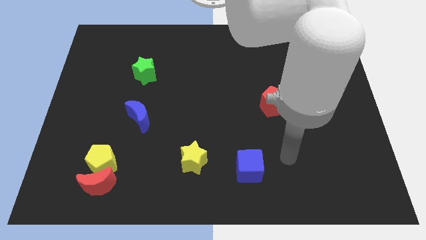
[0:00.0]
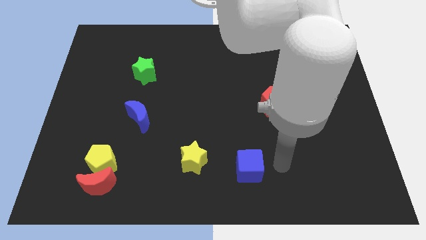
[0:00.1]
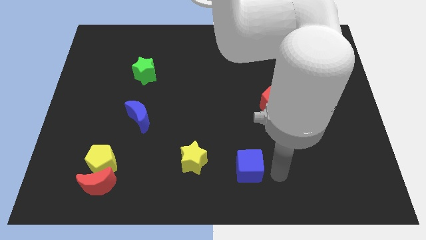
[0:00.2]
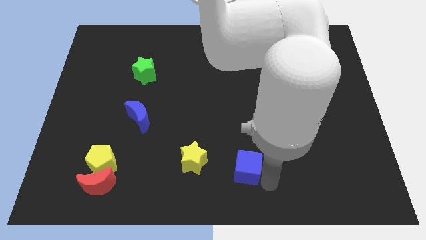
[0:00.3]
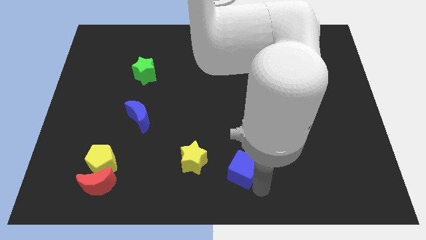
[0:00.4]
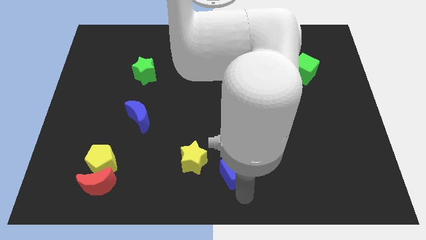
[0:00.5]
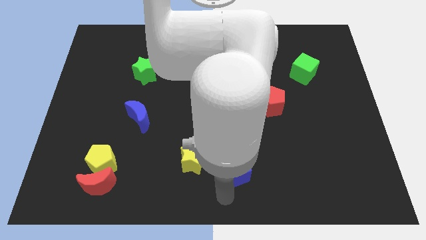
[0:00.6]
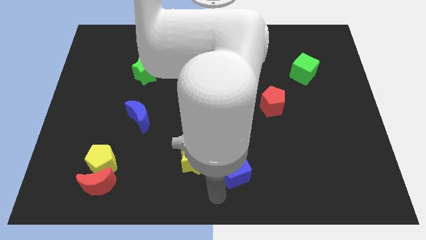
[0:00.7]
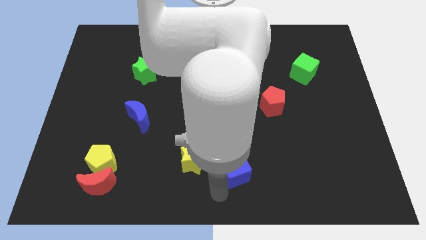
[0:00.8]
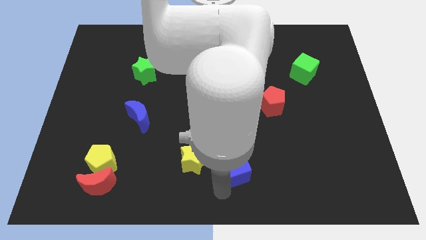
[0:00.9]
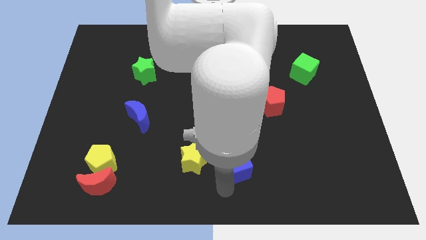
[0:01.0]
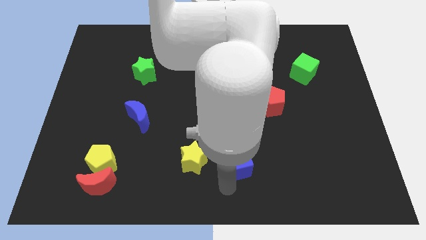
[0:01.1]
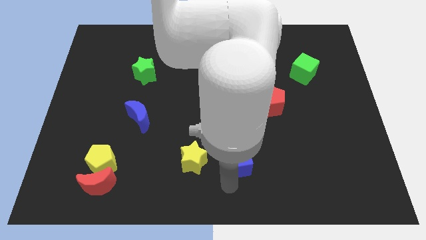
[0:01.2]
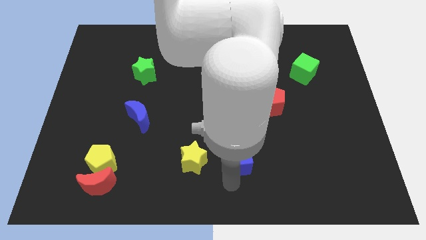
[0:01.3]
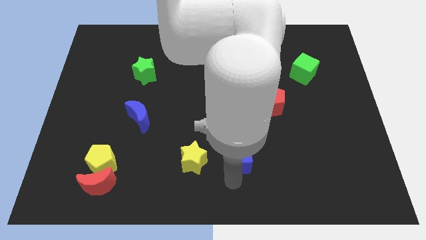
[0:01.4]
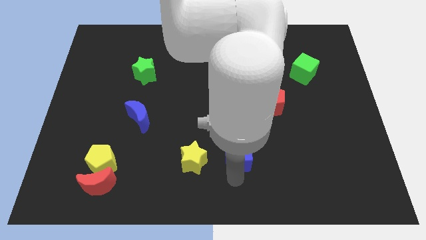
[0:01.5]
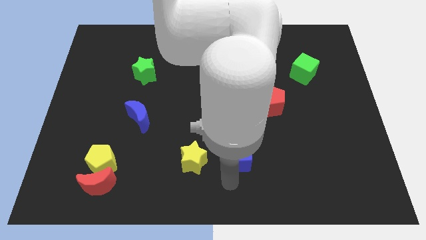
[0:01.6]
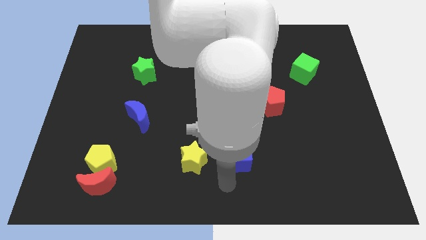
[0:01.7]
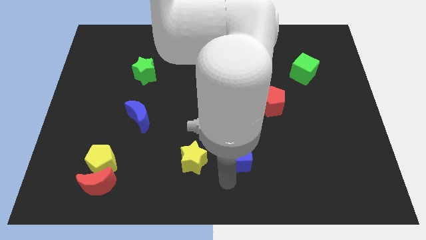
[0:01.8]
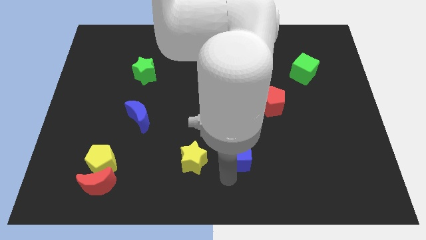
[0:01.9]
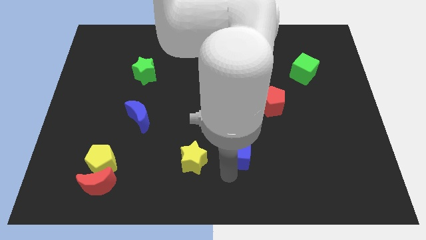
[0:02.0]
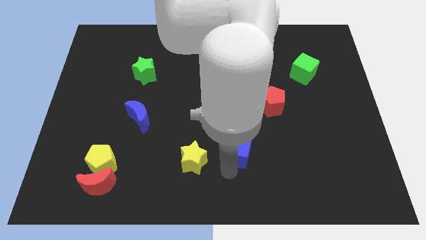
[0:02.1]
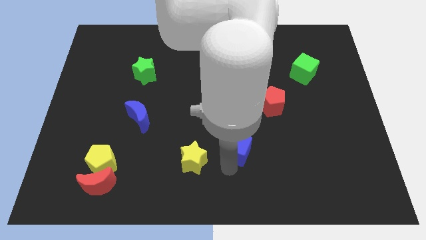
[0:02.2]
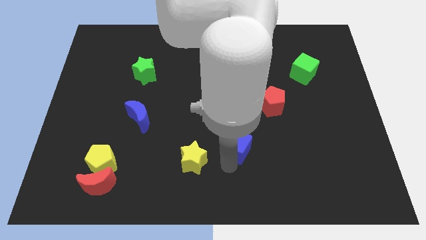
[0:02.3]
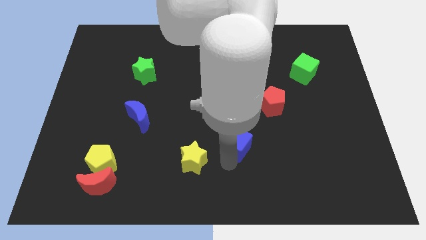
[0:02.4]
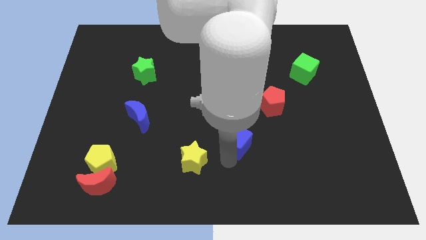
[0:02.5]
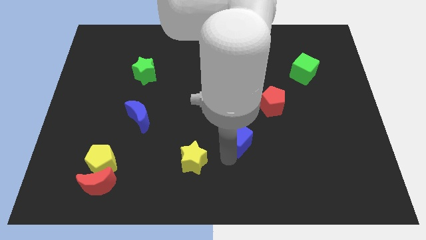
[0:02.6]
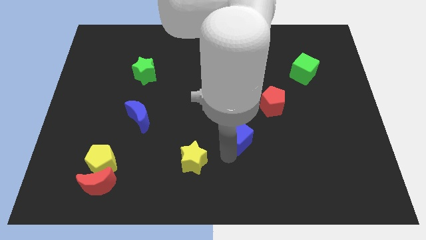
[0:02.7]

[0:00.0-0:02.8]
push the blue cube a little bit upwards

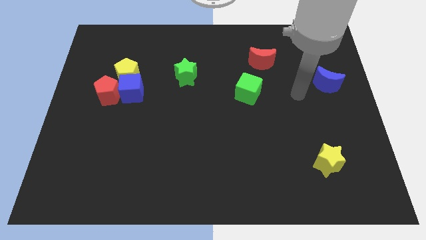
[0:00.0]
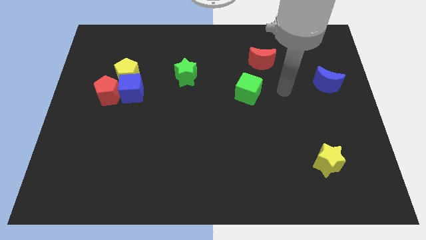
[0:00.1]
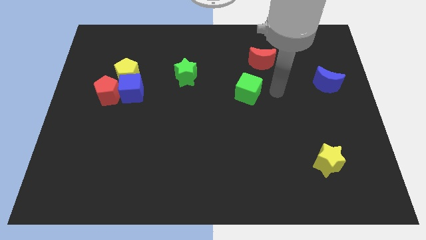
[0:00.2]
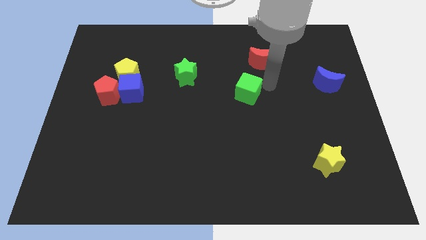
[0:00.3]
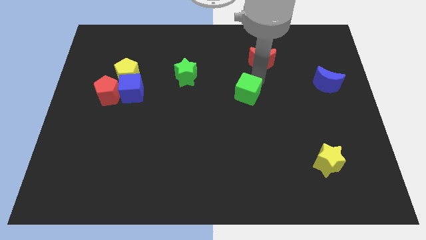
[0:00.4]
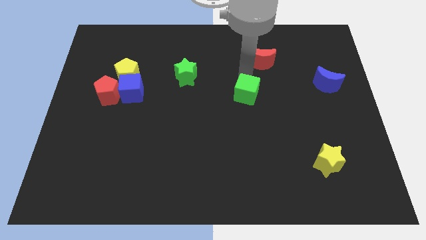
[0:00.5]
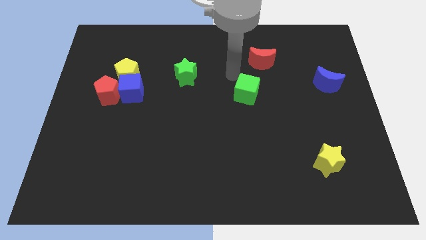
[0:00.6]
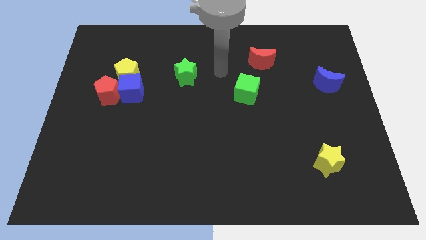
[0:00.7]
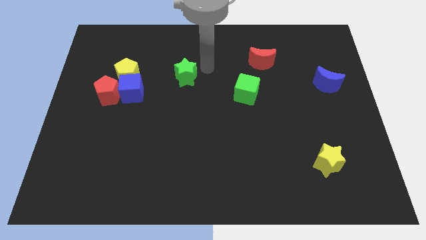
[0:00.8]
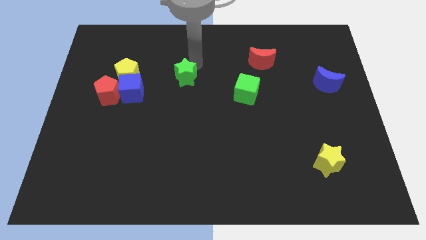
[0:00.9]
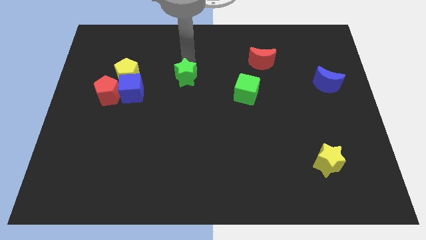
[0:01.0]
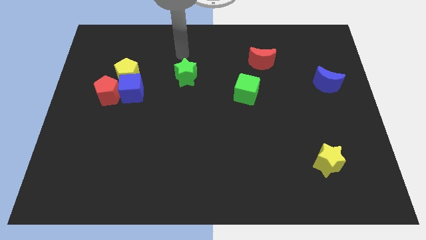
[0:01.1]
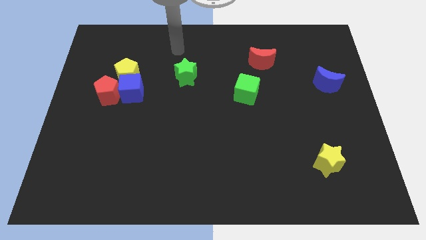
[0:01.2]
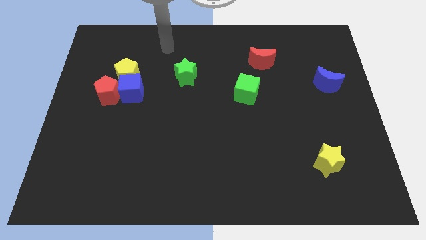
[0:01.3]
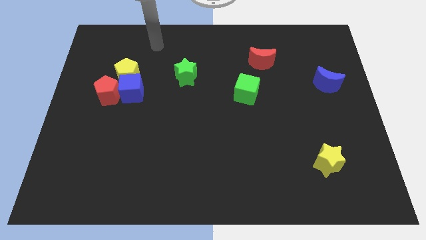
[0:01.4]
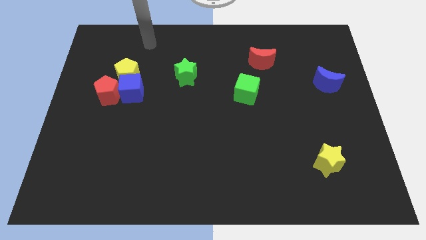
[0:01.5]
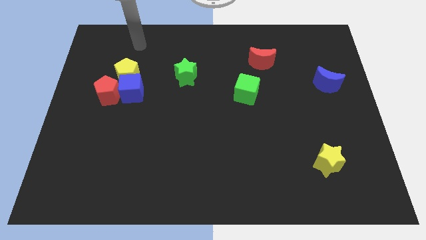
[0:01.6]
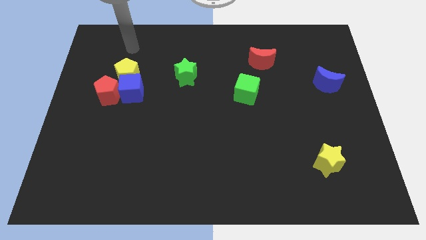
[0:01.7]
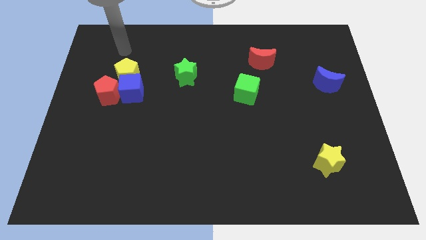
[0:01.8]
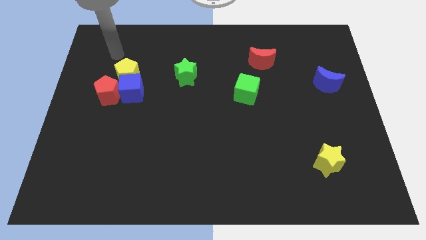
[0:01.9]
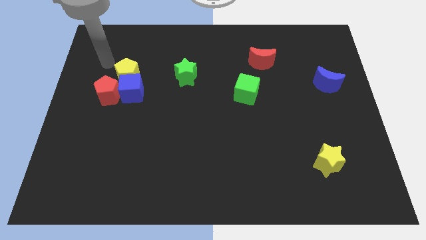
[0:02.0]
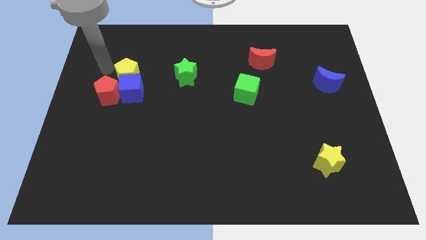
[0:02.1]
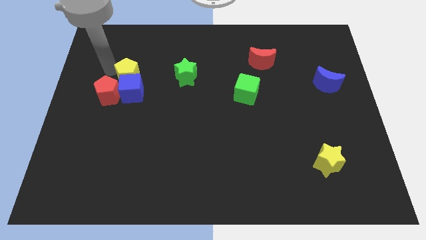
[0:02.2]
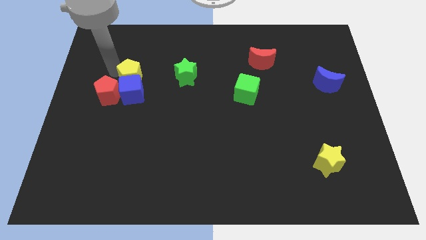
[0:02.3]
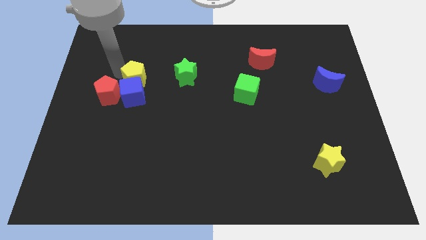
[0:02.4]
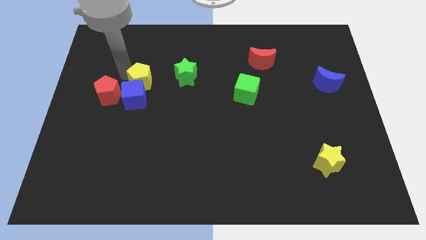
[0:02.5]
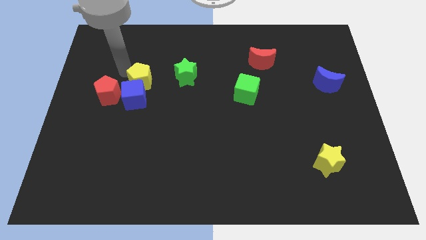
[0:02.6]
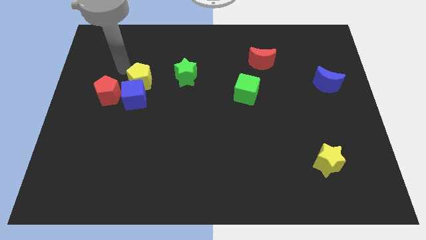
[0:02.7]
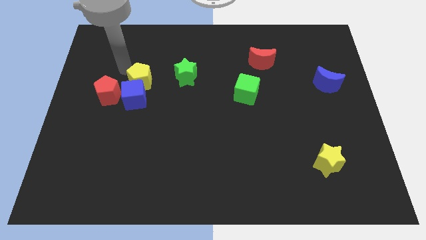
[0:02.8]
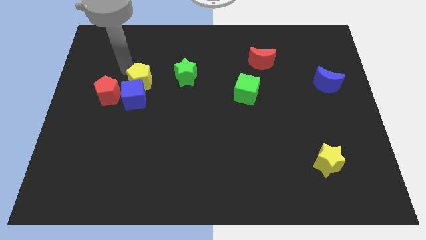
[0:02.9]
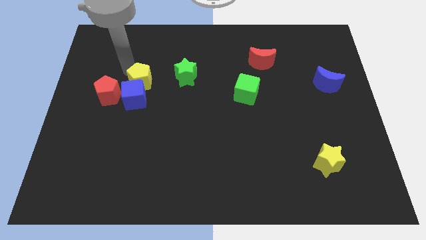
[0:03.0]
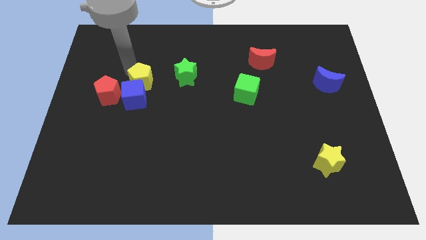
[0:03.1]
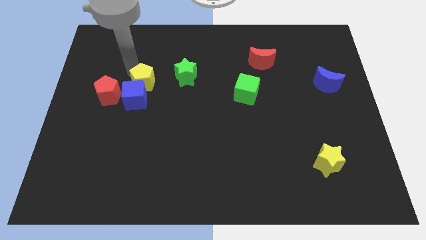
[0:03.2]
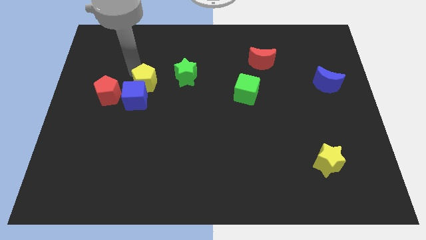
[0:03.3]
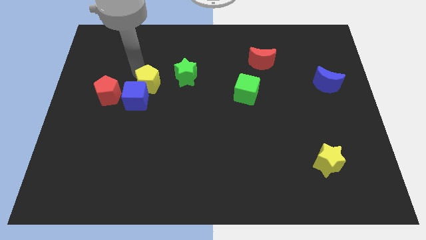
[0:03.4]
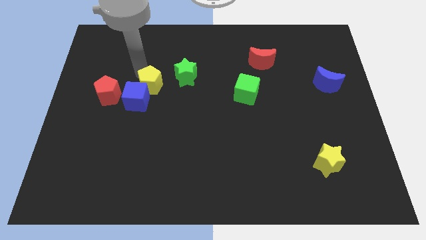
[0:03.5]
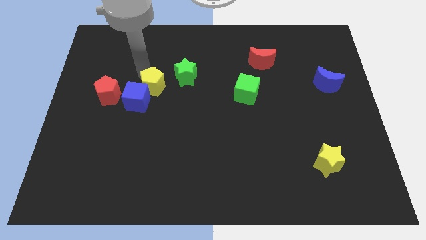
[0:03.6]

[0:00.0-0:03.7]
push the yellow pentagon a little bit downwards and to the right diagonally

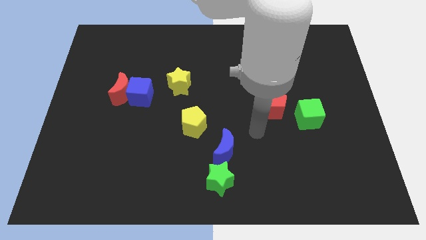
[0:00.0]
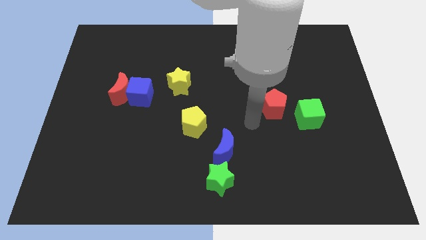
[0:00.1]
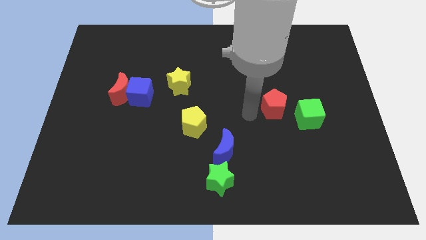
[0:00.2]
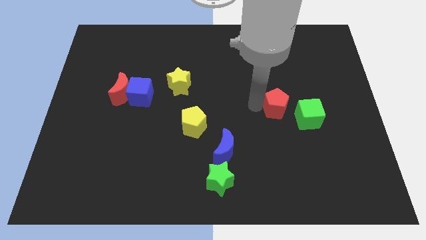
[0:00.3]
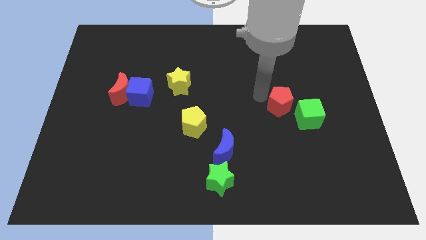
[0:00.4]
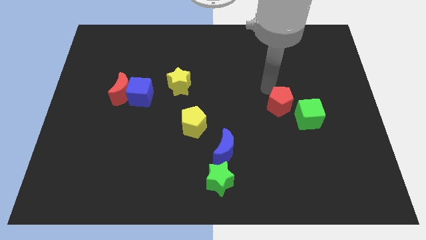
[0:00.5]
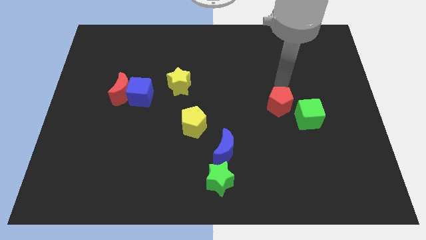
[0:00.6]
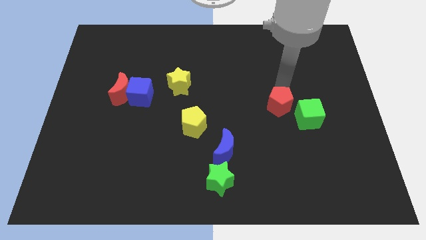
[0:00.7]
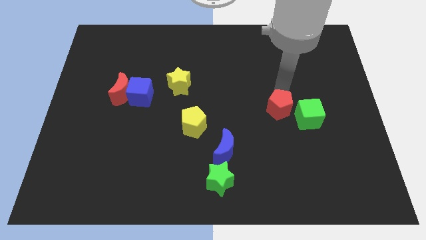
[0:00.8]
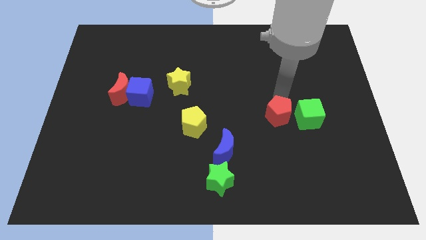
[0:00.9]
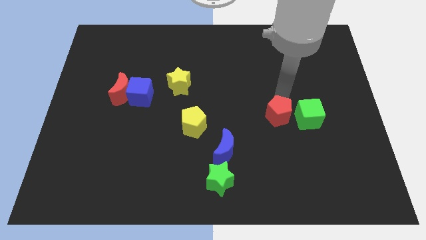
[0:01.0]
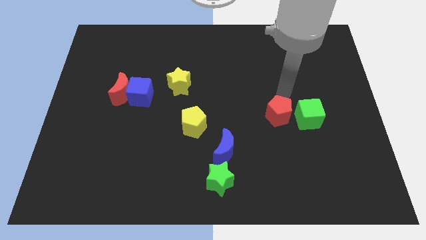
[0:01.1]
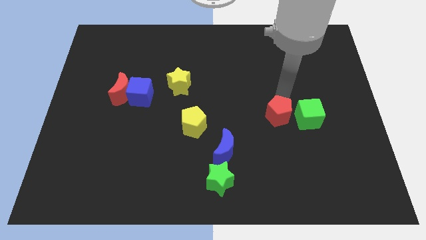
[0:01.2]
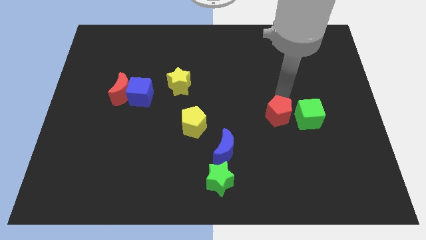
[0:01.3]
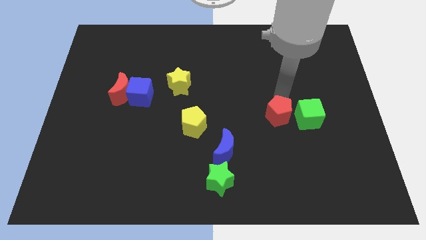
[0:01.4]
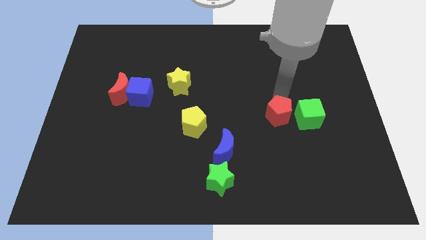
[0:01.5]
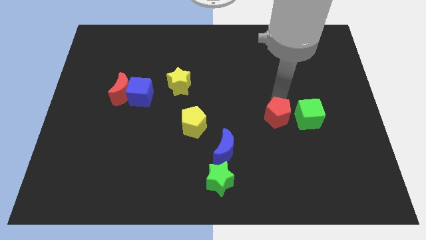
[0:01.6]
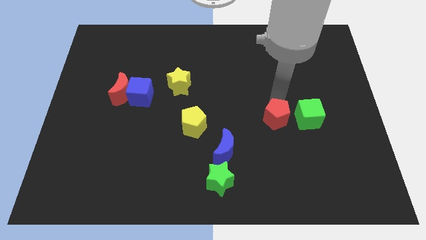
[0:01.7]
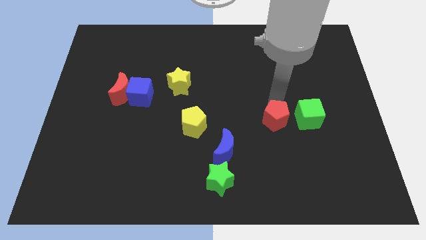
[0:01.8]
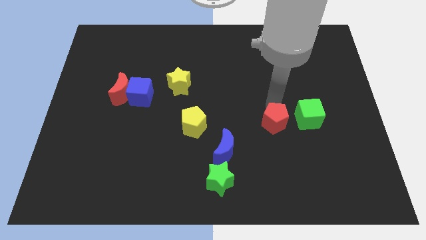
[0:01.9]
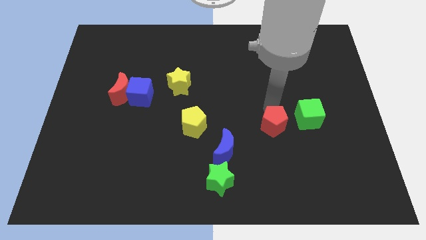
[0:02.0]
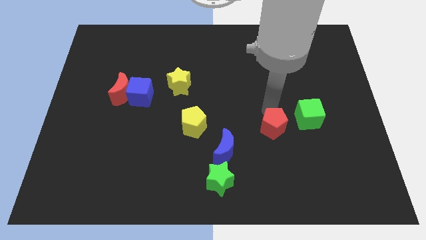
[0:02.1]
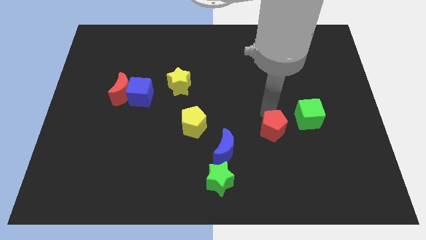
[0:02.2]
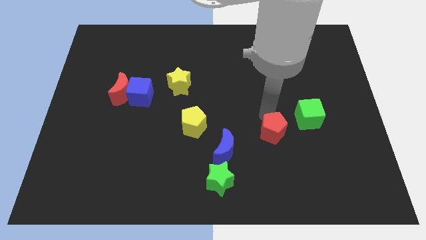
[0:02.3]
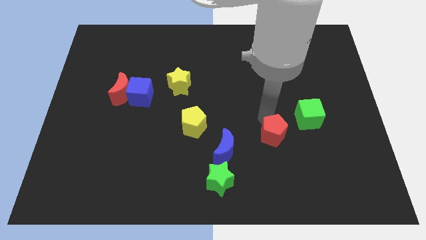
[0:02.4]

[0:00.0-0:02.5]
slide the red pentagon a little downwards
